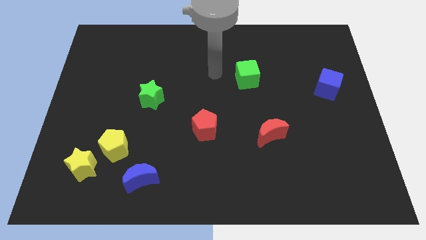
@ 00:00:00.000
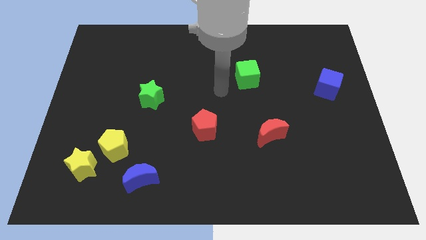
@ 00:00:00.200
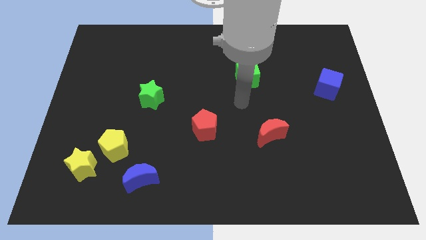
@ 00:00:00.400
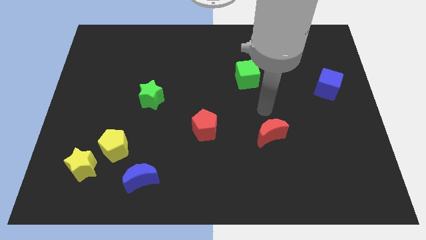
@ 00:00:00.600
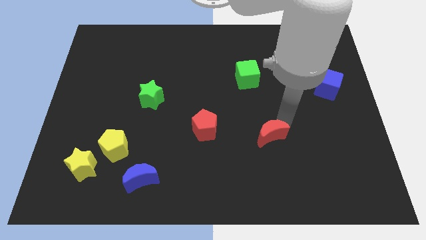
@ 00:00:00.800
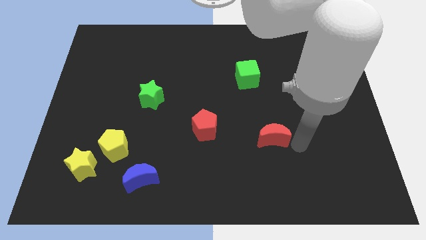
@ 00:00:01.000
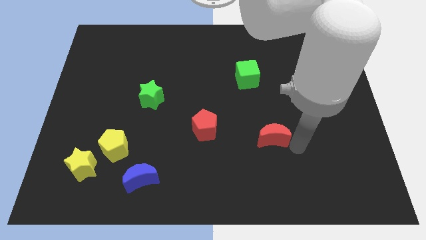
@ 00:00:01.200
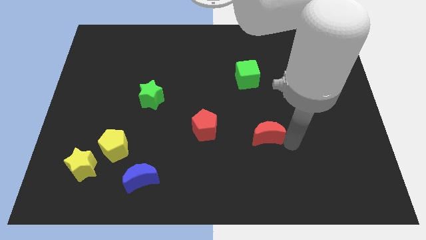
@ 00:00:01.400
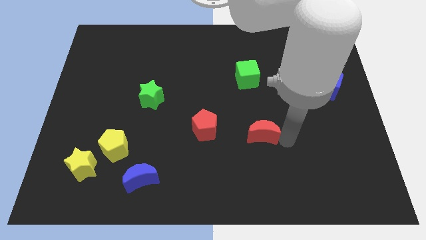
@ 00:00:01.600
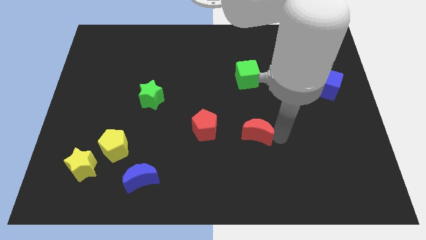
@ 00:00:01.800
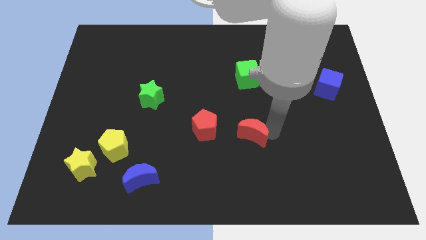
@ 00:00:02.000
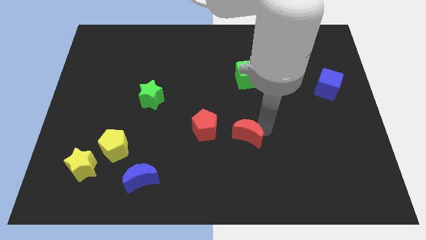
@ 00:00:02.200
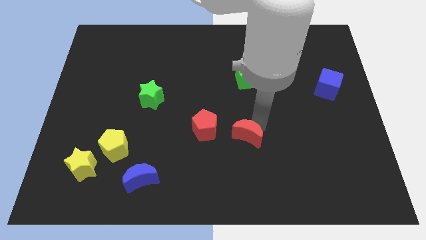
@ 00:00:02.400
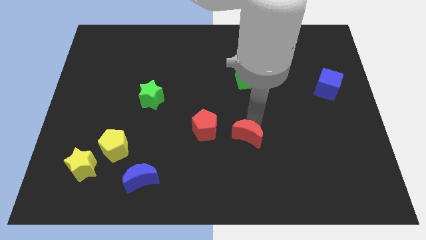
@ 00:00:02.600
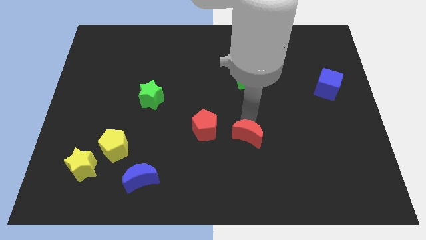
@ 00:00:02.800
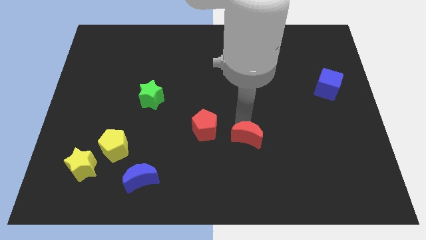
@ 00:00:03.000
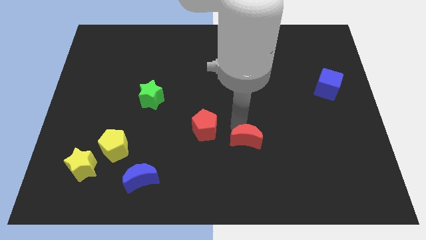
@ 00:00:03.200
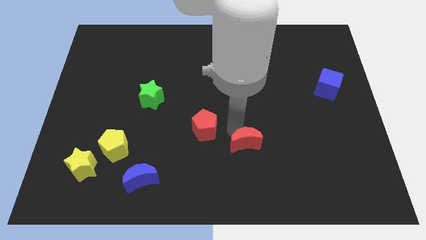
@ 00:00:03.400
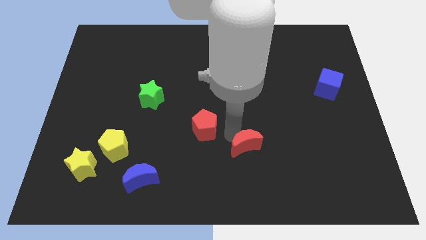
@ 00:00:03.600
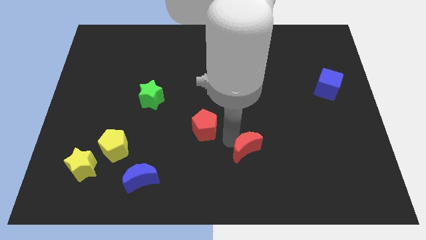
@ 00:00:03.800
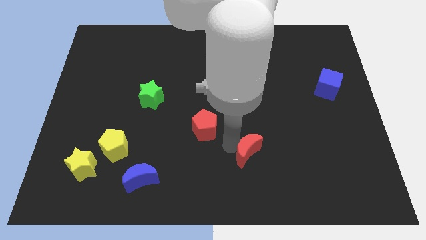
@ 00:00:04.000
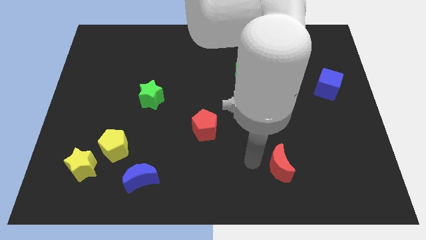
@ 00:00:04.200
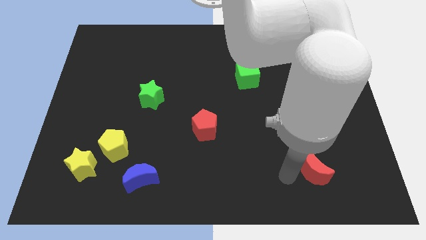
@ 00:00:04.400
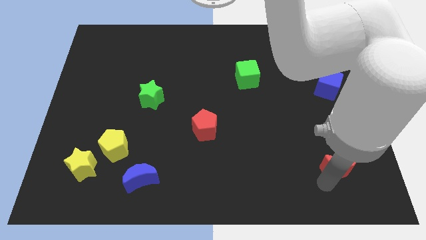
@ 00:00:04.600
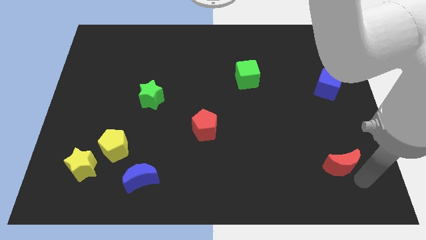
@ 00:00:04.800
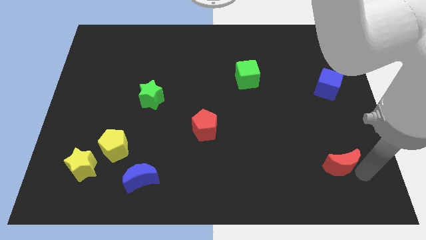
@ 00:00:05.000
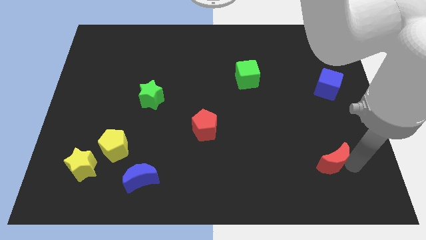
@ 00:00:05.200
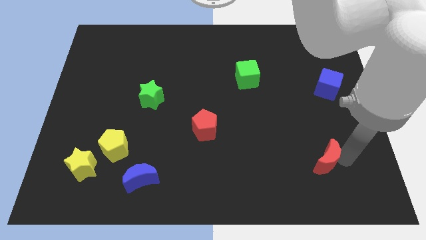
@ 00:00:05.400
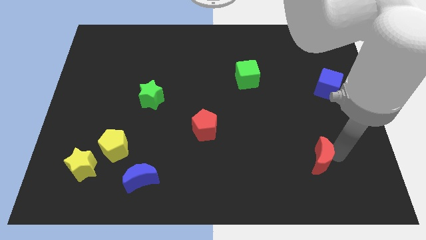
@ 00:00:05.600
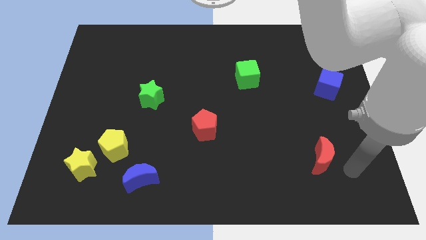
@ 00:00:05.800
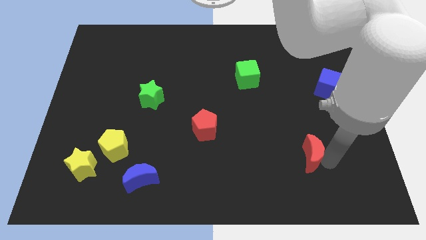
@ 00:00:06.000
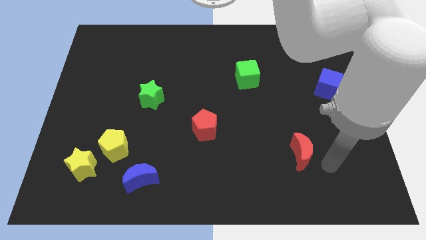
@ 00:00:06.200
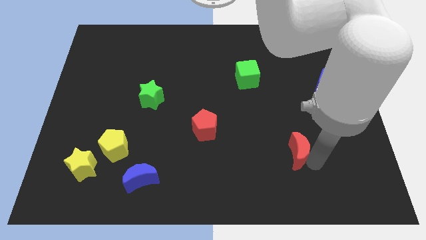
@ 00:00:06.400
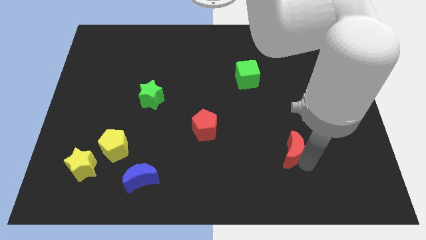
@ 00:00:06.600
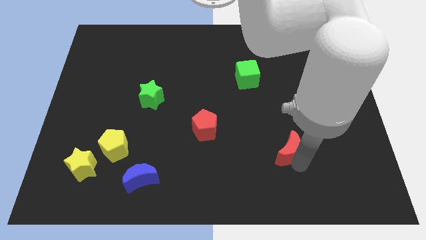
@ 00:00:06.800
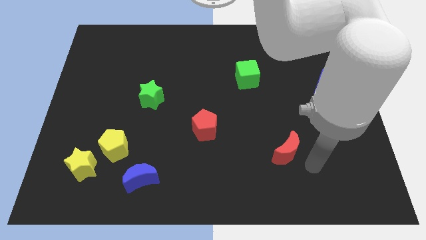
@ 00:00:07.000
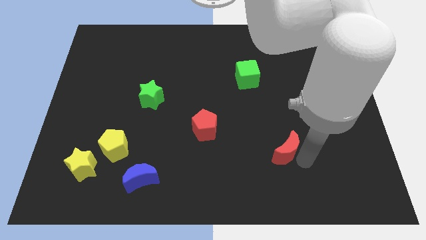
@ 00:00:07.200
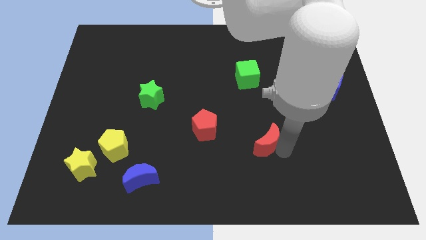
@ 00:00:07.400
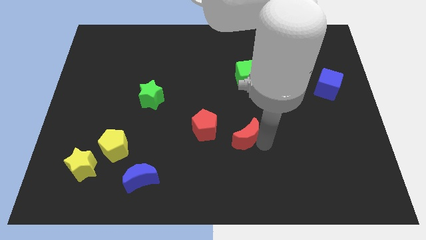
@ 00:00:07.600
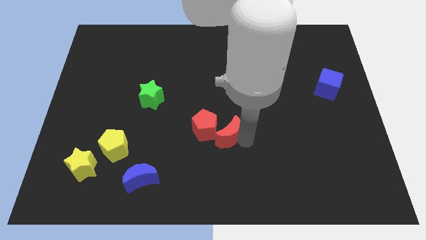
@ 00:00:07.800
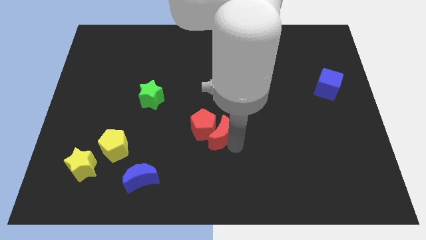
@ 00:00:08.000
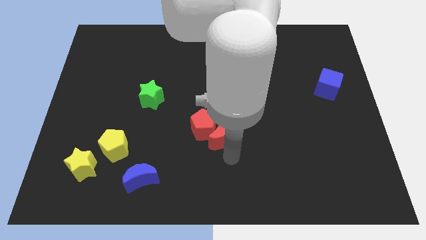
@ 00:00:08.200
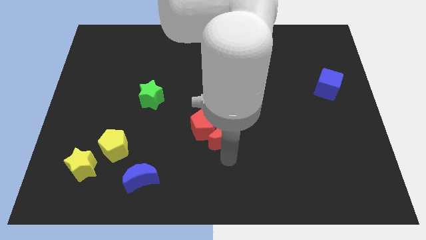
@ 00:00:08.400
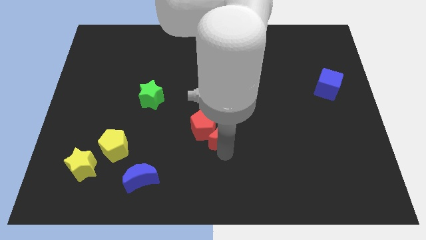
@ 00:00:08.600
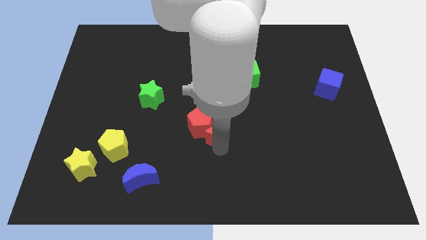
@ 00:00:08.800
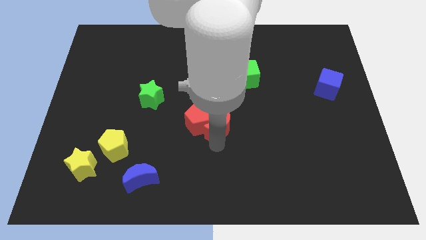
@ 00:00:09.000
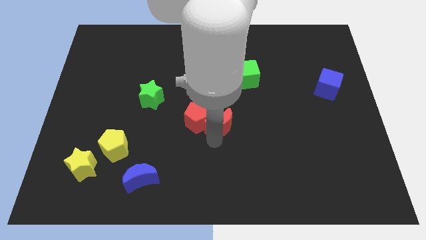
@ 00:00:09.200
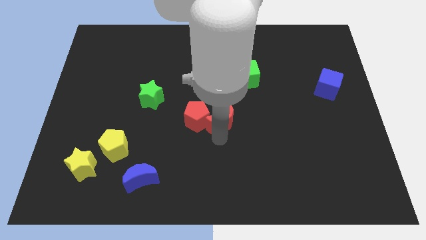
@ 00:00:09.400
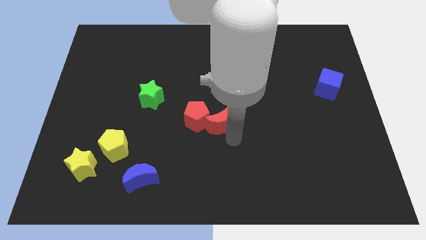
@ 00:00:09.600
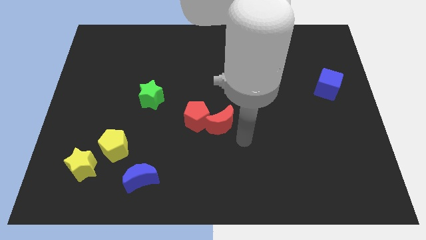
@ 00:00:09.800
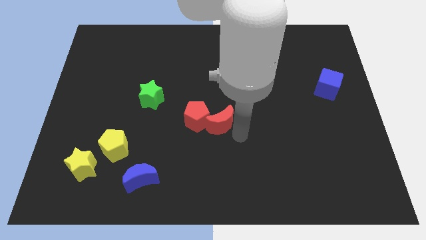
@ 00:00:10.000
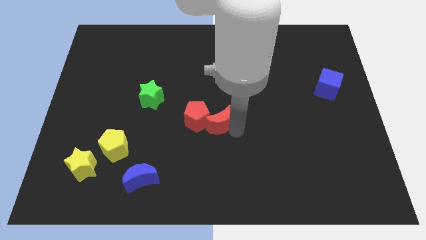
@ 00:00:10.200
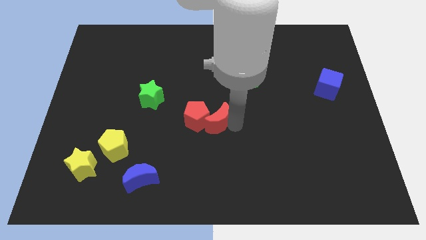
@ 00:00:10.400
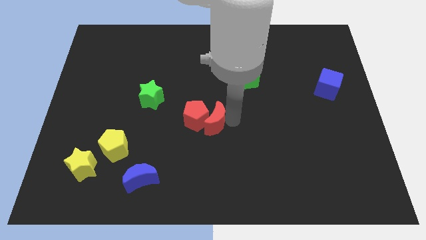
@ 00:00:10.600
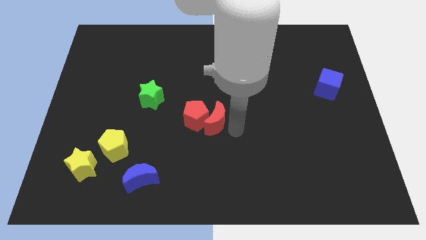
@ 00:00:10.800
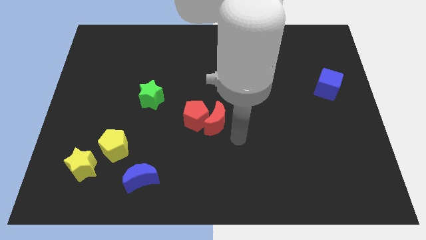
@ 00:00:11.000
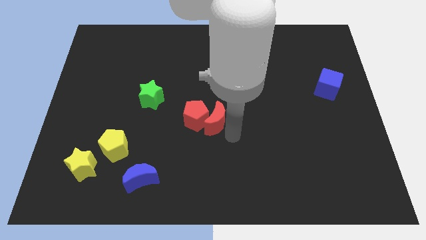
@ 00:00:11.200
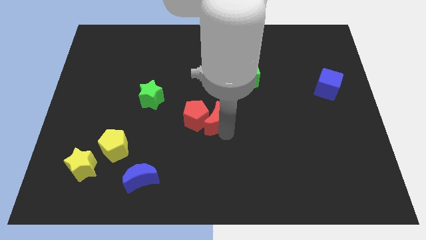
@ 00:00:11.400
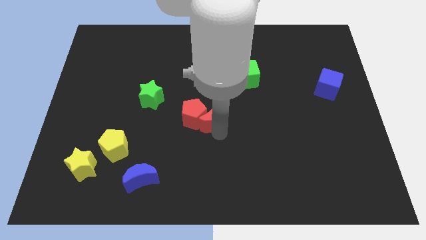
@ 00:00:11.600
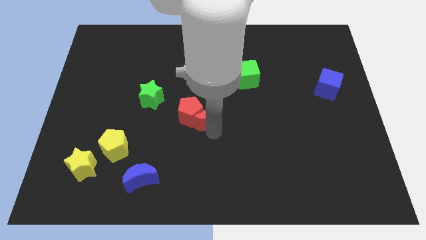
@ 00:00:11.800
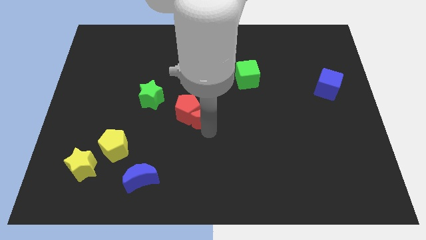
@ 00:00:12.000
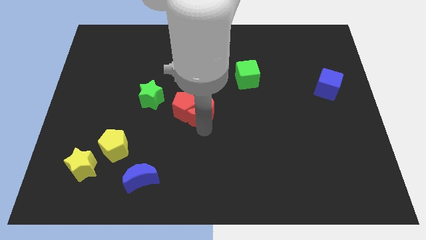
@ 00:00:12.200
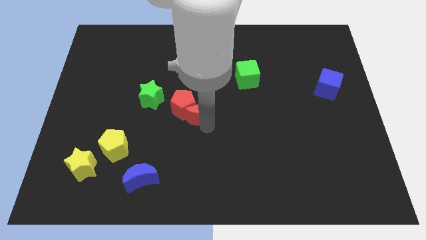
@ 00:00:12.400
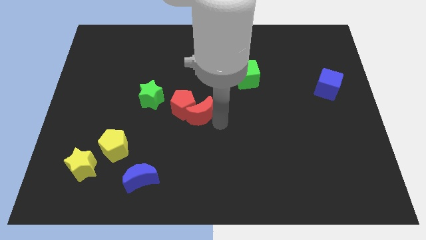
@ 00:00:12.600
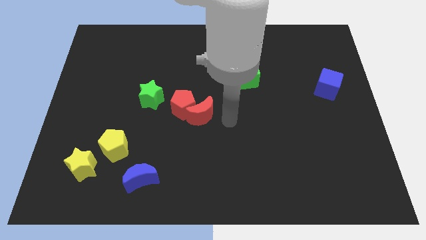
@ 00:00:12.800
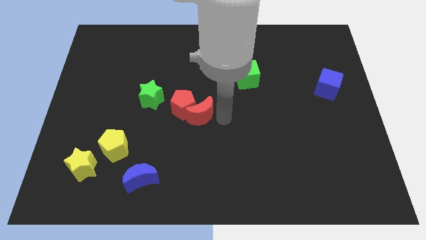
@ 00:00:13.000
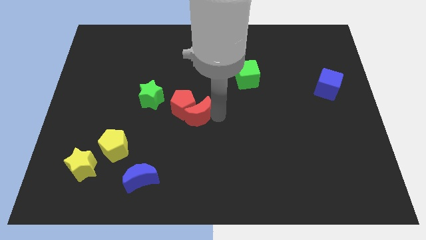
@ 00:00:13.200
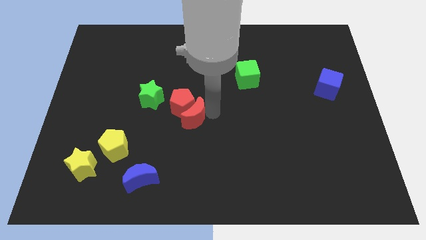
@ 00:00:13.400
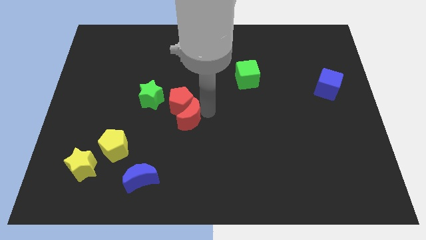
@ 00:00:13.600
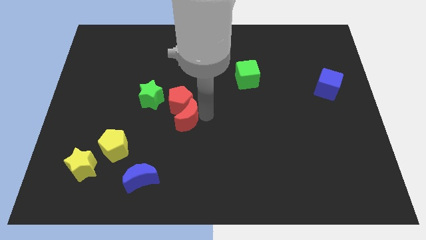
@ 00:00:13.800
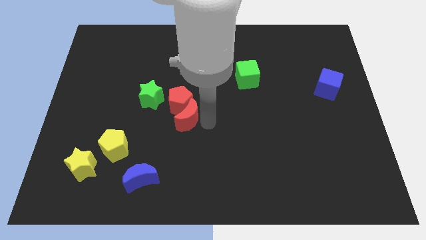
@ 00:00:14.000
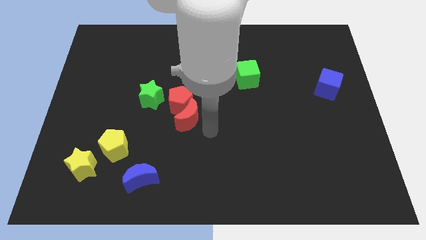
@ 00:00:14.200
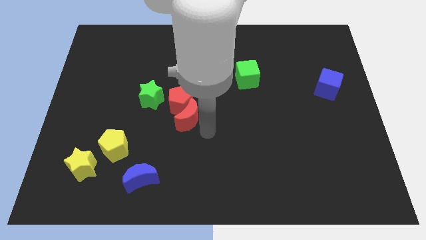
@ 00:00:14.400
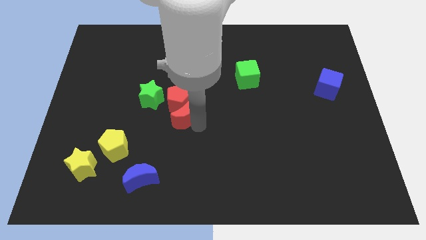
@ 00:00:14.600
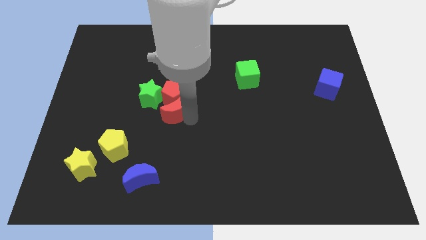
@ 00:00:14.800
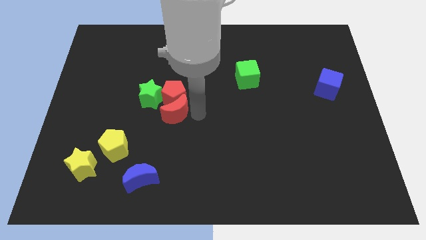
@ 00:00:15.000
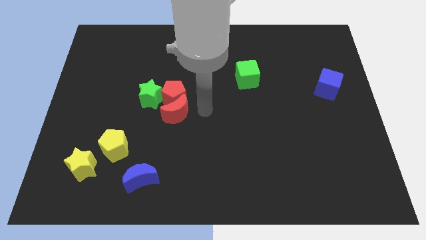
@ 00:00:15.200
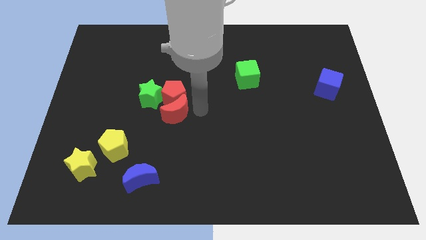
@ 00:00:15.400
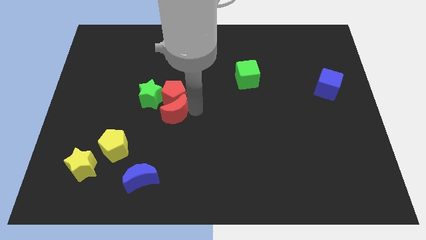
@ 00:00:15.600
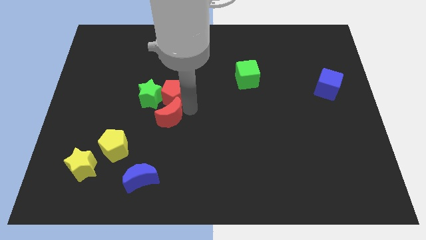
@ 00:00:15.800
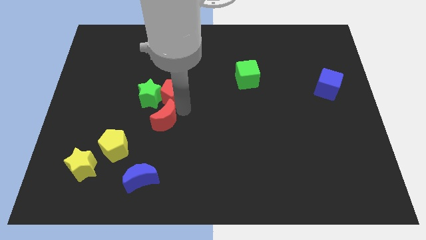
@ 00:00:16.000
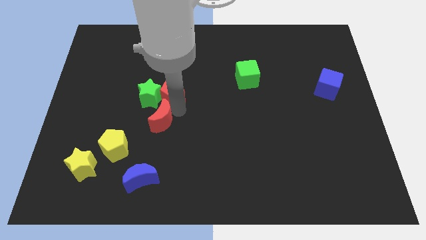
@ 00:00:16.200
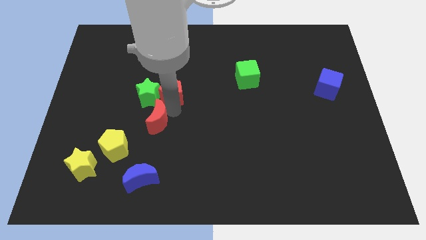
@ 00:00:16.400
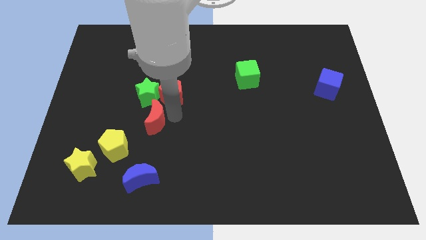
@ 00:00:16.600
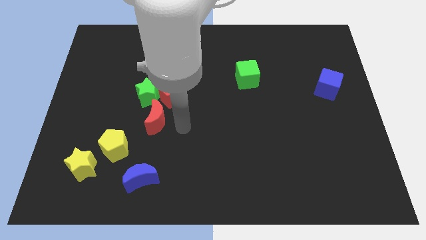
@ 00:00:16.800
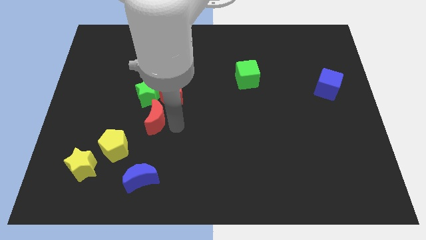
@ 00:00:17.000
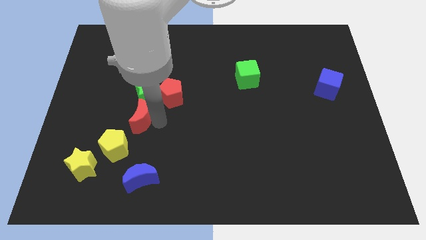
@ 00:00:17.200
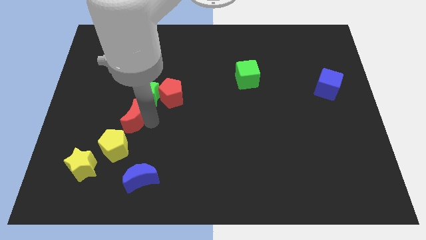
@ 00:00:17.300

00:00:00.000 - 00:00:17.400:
put the red moon to the top side of the yellow pentagon
